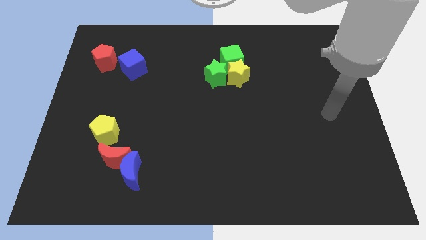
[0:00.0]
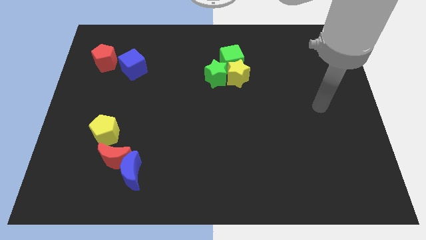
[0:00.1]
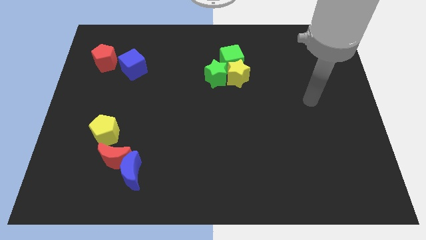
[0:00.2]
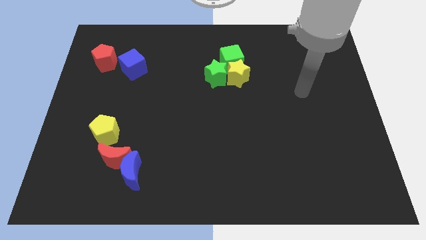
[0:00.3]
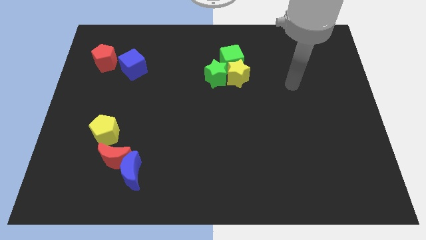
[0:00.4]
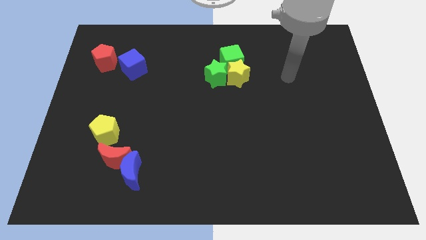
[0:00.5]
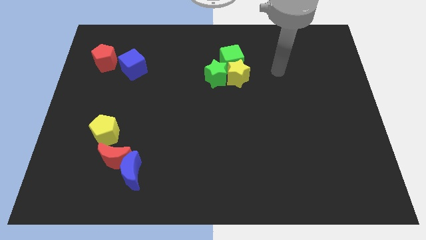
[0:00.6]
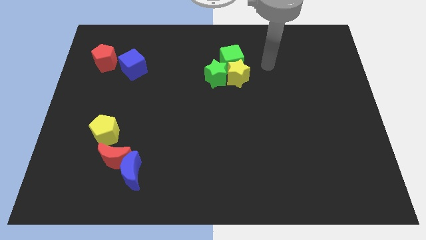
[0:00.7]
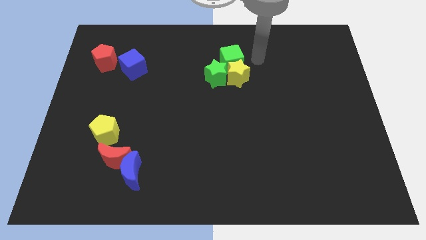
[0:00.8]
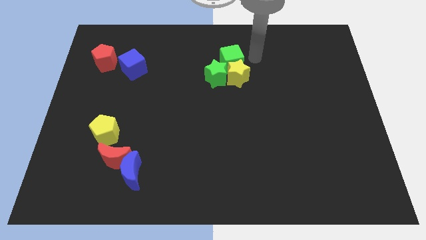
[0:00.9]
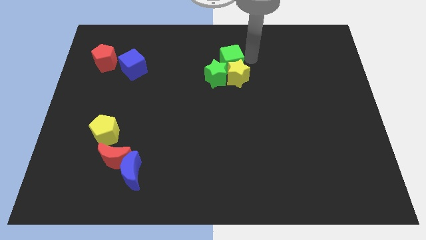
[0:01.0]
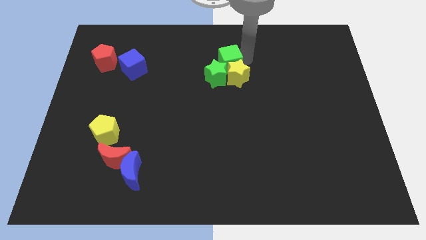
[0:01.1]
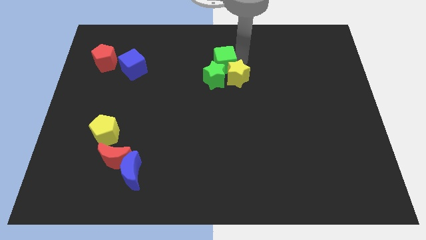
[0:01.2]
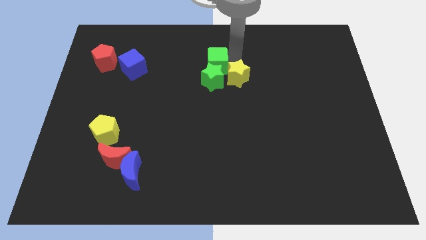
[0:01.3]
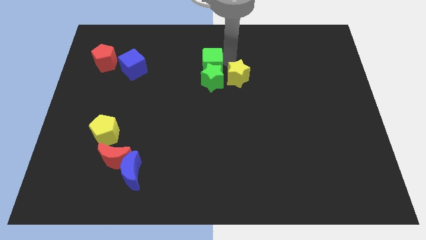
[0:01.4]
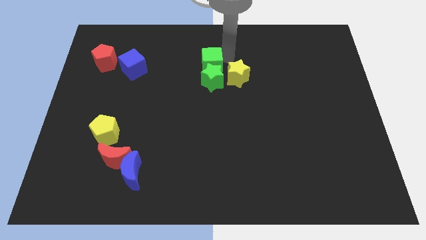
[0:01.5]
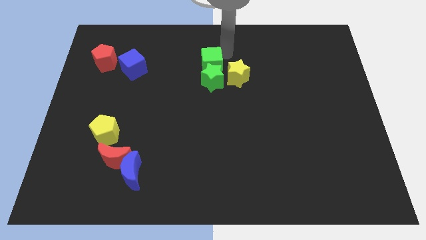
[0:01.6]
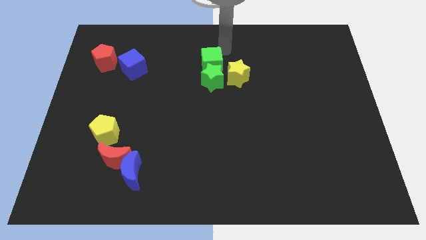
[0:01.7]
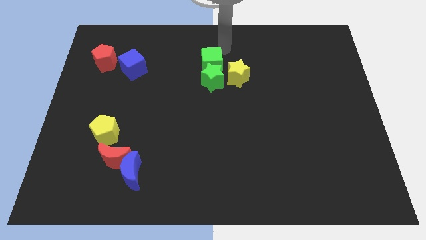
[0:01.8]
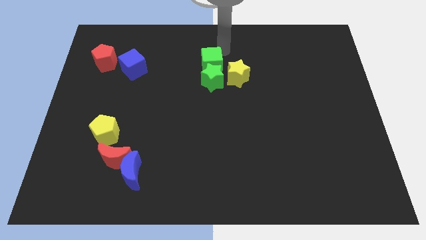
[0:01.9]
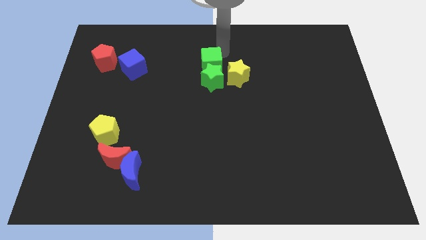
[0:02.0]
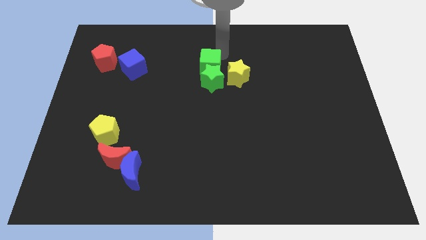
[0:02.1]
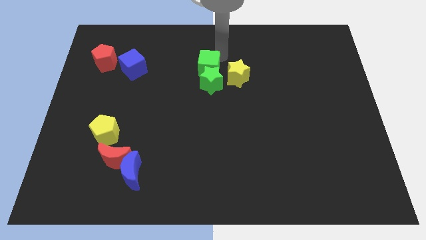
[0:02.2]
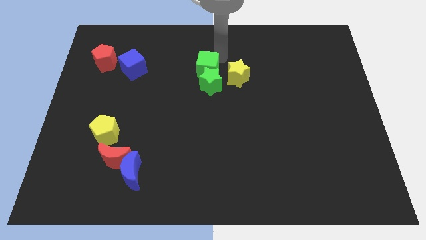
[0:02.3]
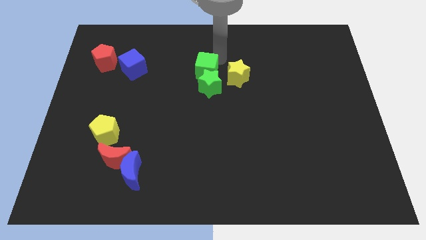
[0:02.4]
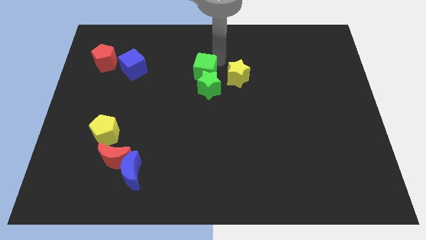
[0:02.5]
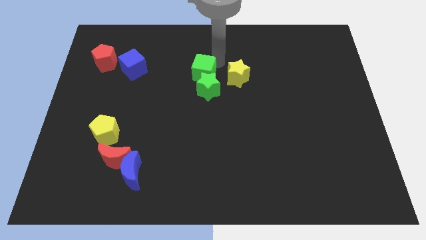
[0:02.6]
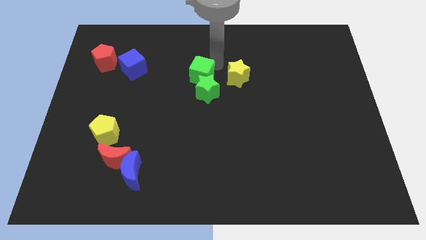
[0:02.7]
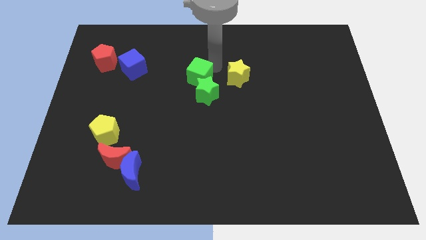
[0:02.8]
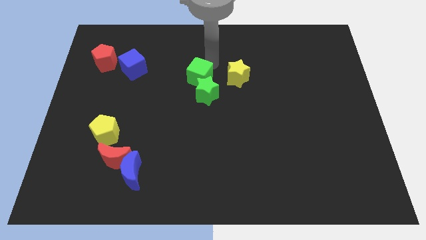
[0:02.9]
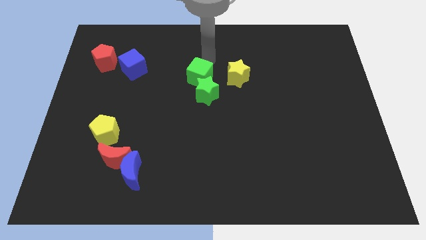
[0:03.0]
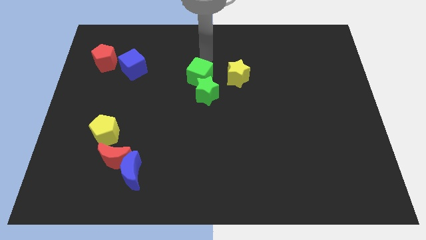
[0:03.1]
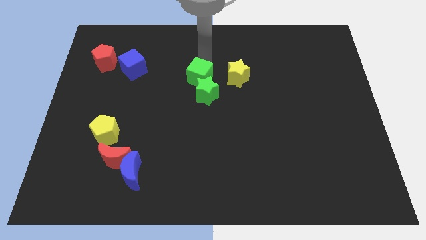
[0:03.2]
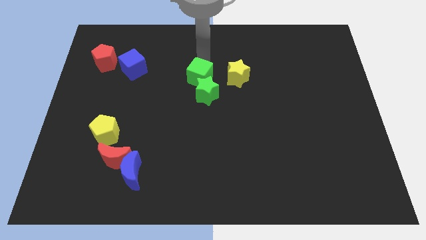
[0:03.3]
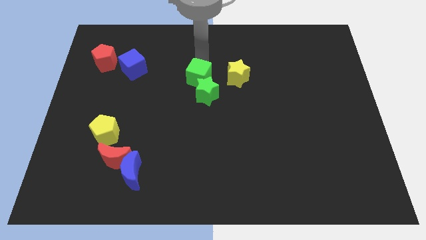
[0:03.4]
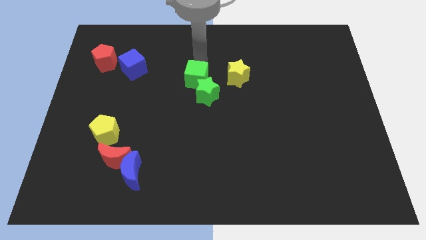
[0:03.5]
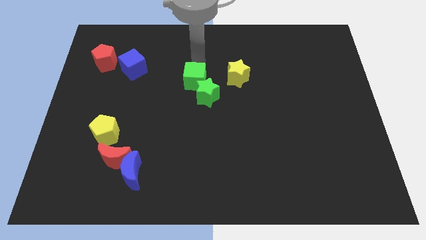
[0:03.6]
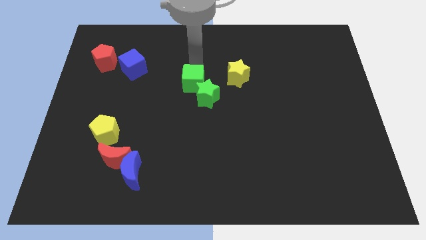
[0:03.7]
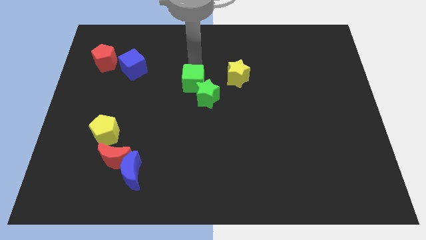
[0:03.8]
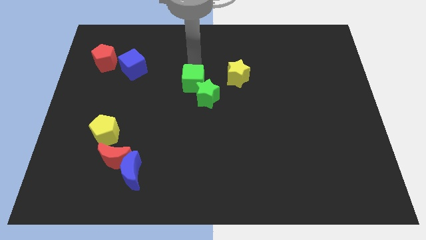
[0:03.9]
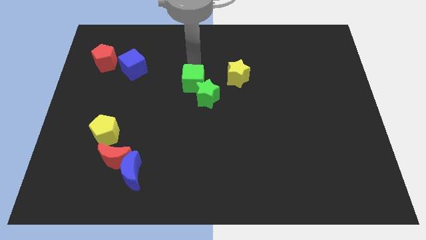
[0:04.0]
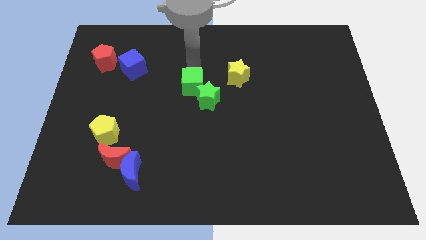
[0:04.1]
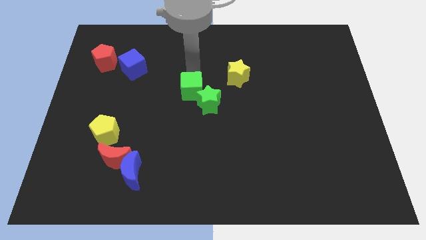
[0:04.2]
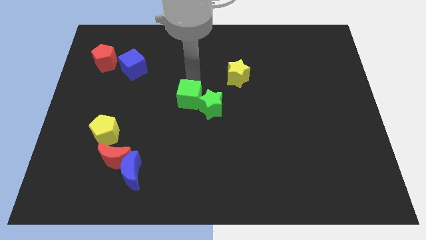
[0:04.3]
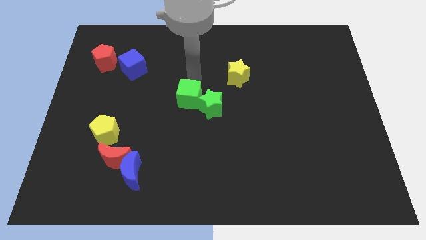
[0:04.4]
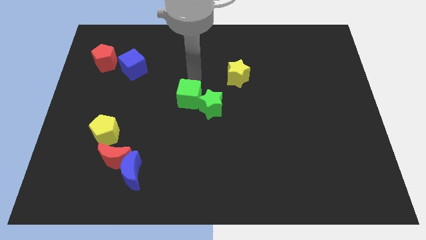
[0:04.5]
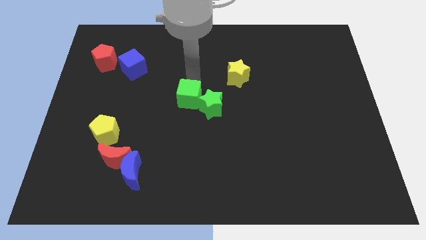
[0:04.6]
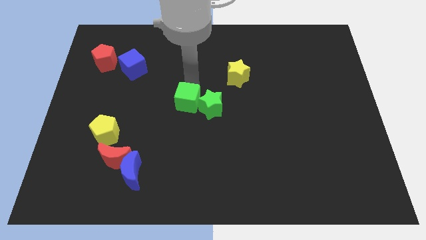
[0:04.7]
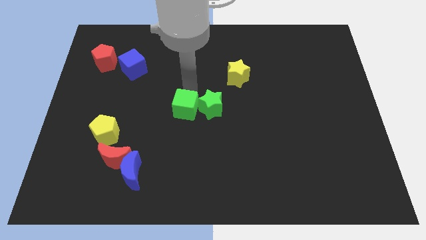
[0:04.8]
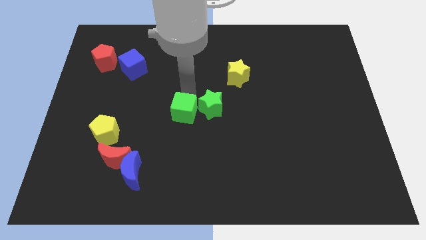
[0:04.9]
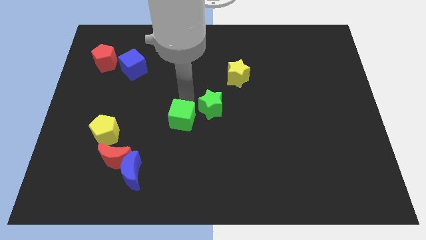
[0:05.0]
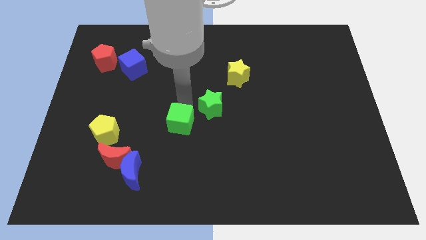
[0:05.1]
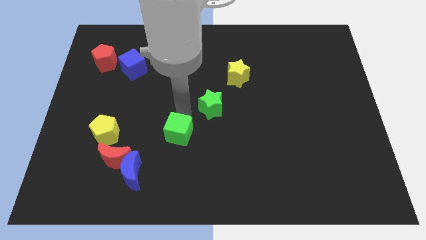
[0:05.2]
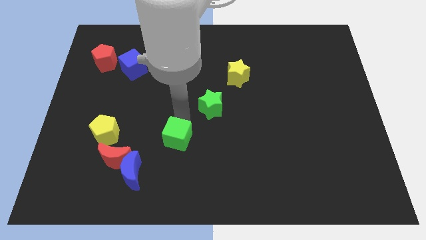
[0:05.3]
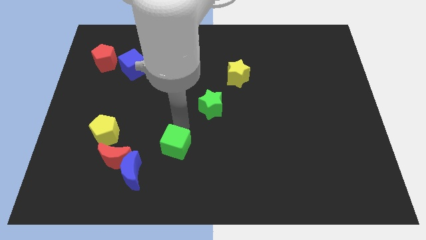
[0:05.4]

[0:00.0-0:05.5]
push the green cube to the right of the red moon

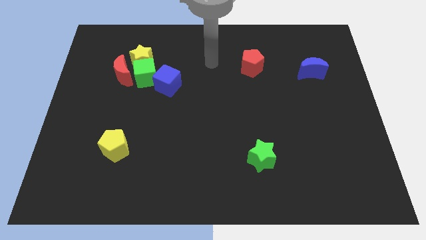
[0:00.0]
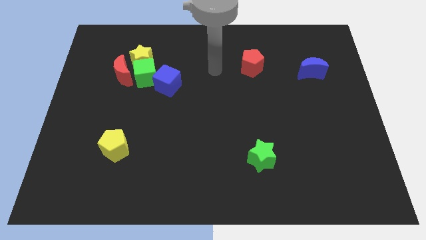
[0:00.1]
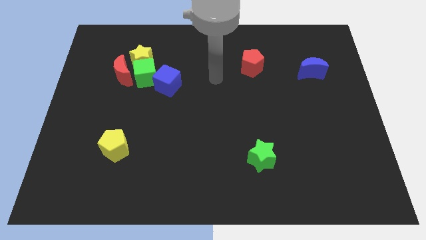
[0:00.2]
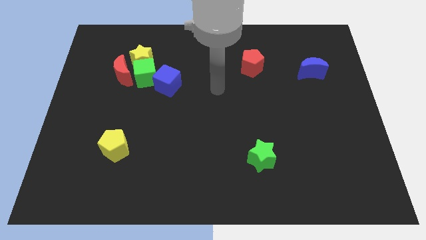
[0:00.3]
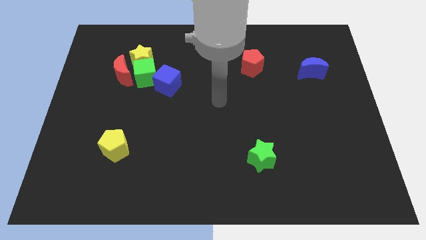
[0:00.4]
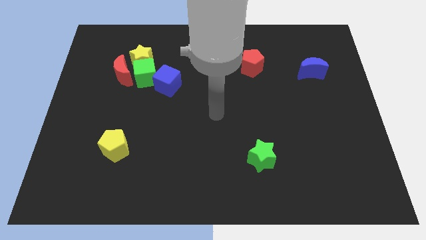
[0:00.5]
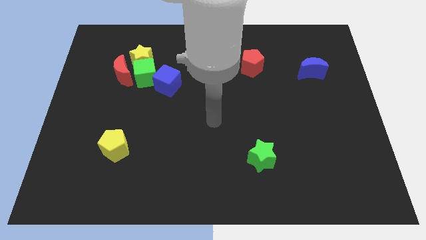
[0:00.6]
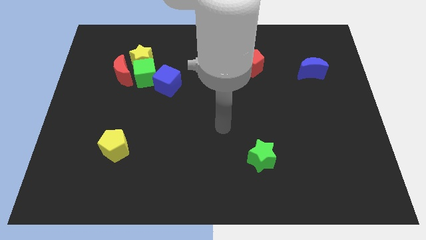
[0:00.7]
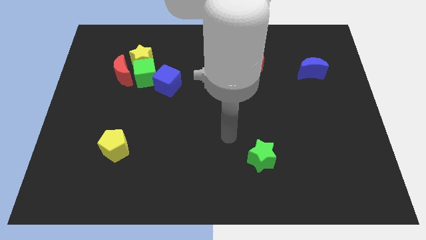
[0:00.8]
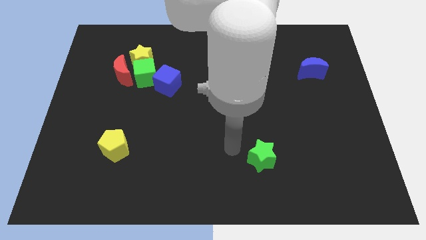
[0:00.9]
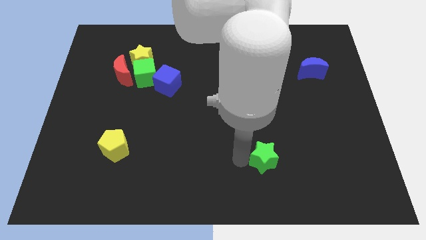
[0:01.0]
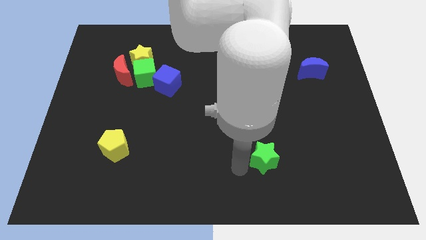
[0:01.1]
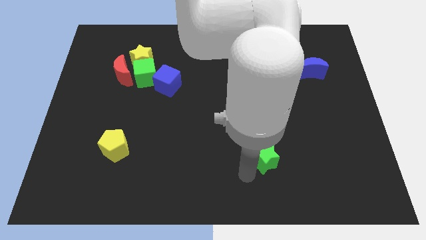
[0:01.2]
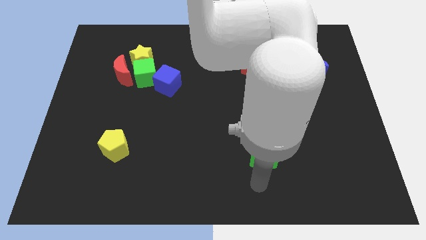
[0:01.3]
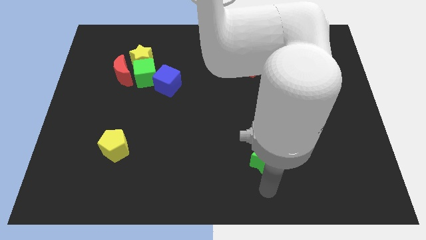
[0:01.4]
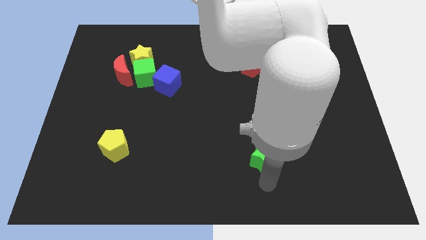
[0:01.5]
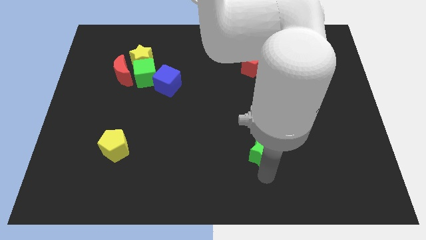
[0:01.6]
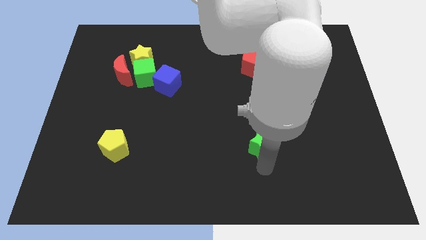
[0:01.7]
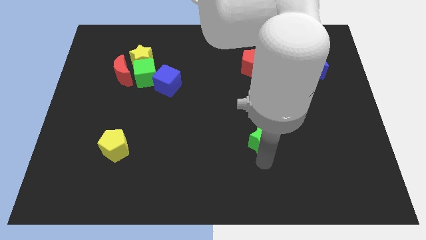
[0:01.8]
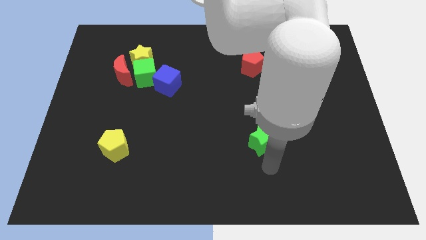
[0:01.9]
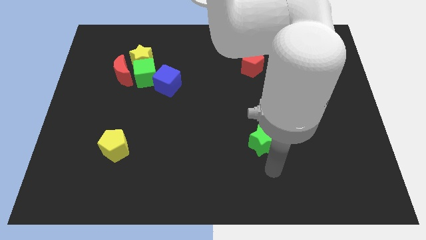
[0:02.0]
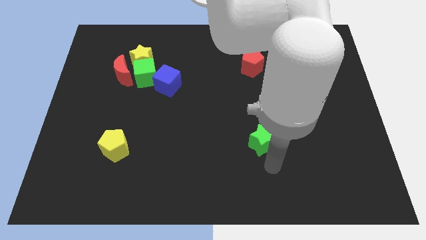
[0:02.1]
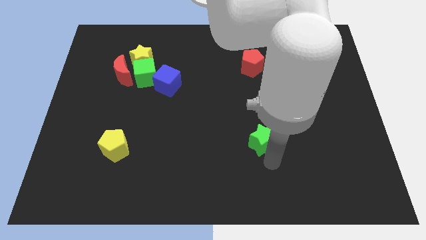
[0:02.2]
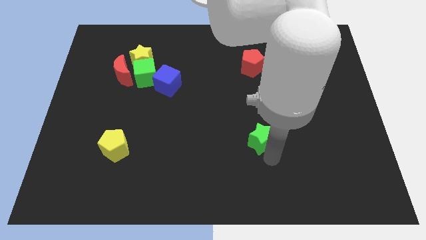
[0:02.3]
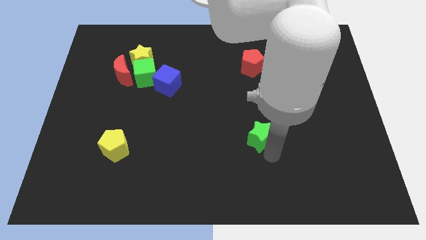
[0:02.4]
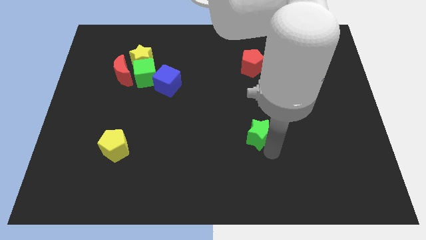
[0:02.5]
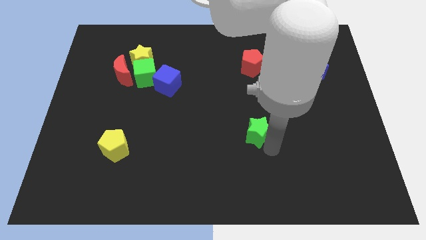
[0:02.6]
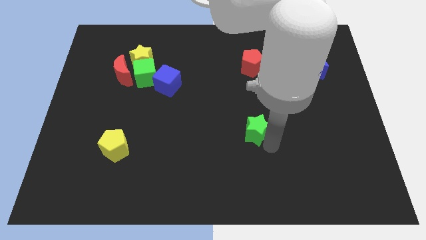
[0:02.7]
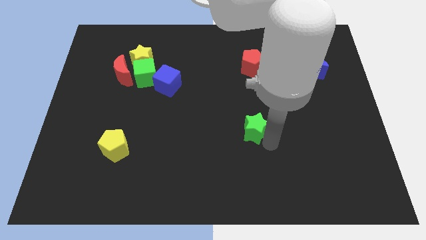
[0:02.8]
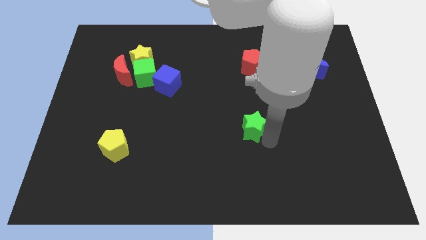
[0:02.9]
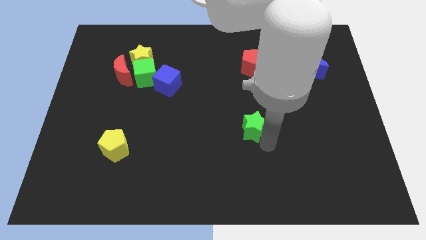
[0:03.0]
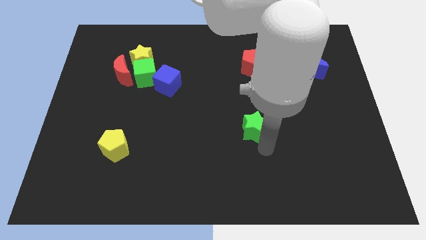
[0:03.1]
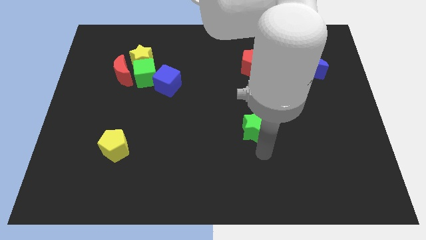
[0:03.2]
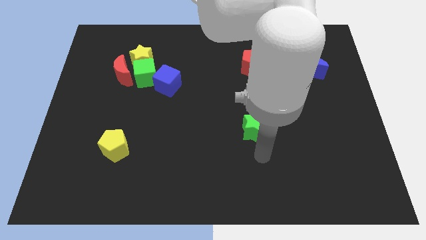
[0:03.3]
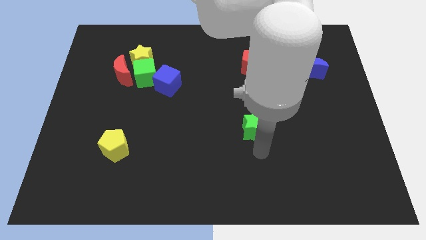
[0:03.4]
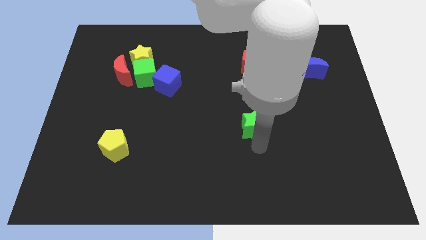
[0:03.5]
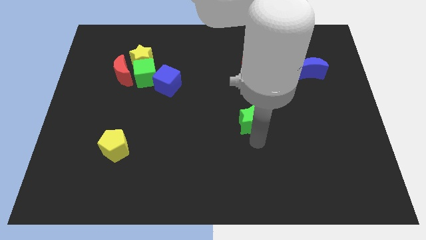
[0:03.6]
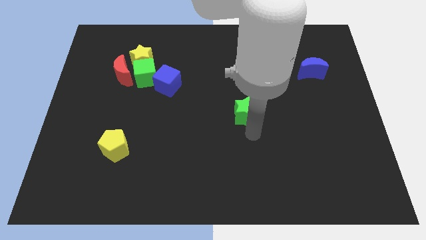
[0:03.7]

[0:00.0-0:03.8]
slide the green star to the bottom of the red pentagon
